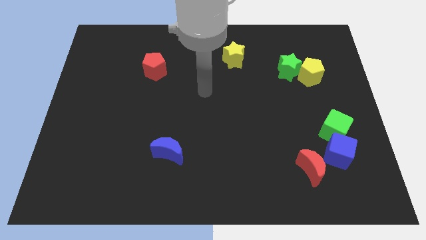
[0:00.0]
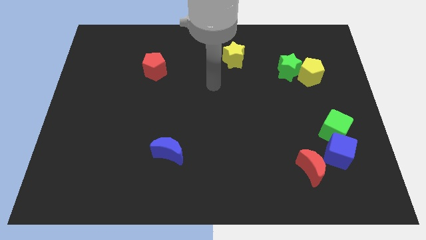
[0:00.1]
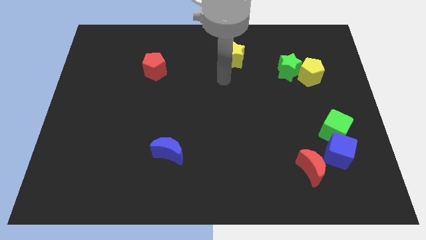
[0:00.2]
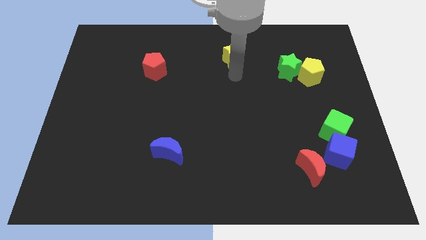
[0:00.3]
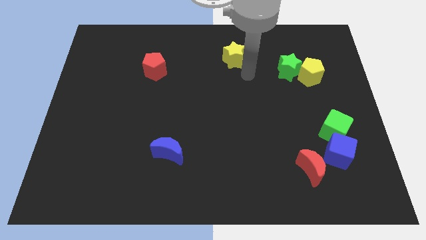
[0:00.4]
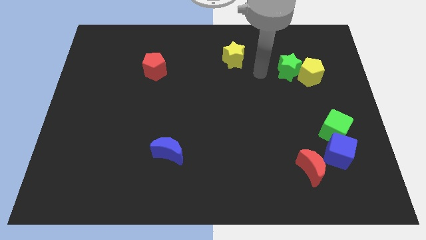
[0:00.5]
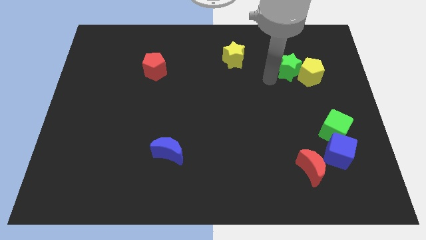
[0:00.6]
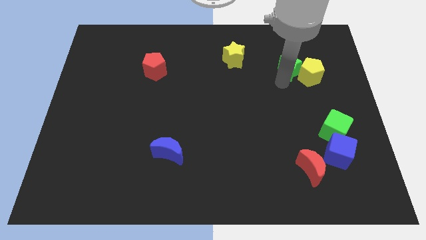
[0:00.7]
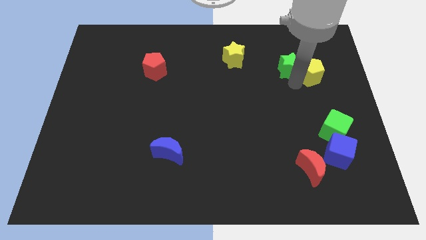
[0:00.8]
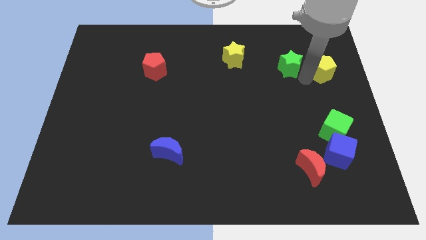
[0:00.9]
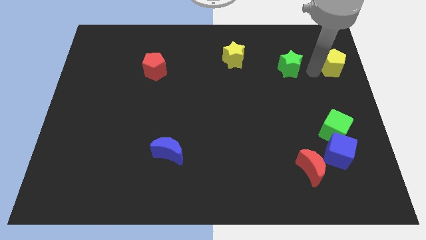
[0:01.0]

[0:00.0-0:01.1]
separate the green star from the yellow pentagon

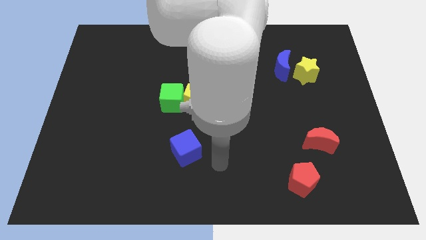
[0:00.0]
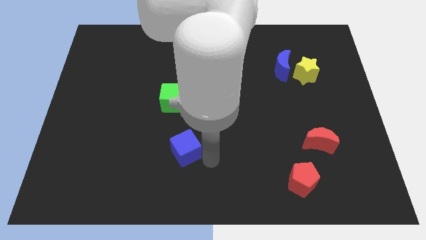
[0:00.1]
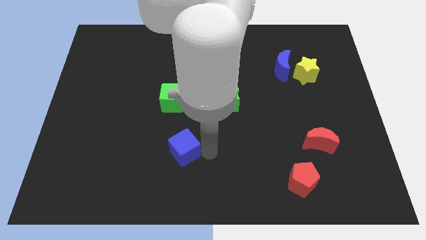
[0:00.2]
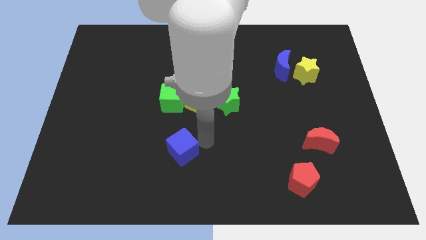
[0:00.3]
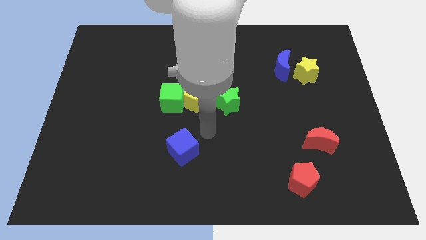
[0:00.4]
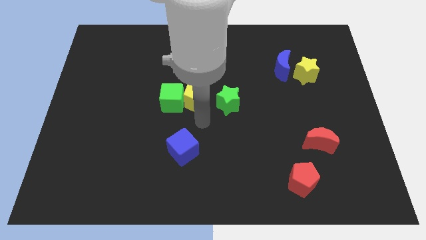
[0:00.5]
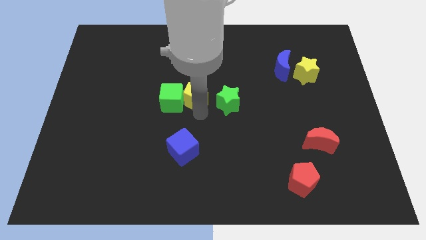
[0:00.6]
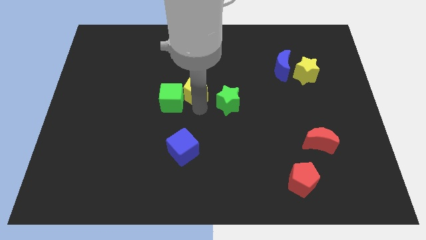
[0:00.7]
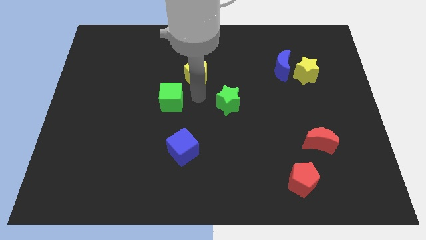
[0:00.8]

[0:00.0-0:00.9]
pull the green cube apart from the yellow pentagon

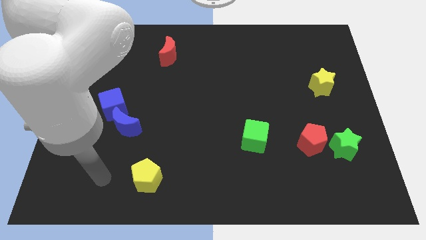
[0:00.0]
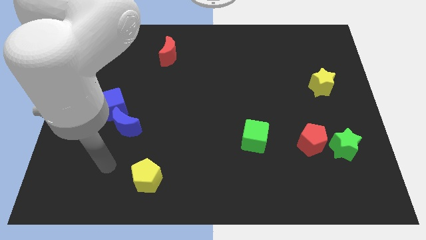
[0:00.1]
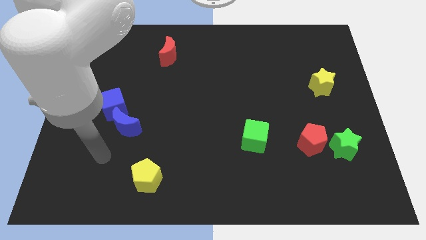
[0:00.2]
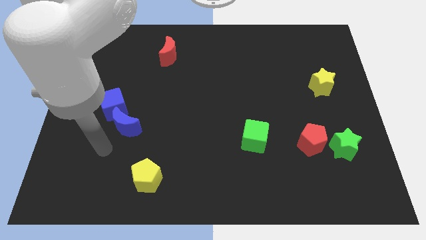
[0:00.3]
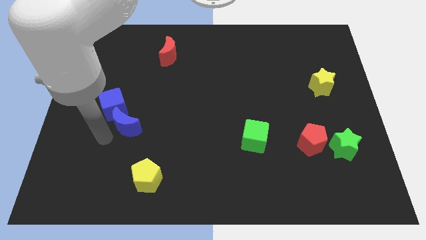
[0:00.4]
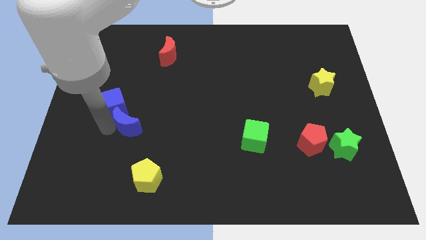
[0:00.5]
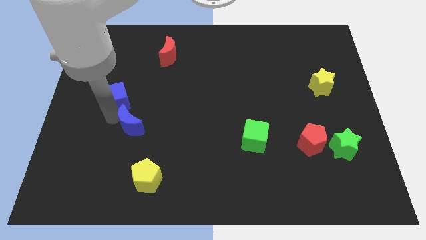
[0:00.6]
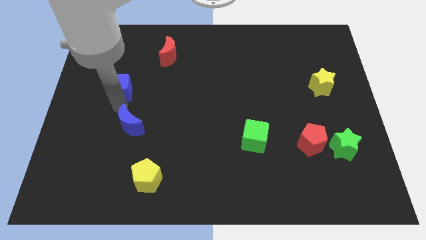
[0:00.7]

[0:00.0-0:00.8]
pull the blue moon apart from the blue cube

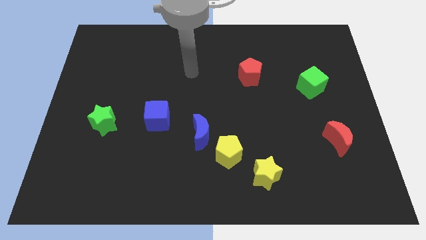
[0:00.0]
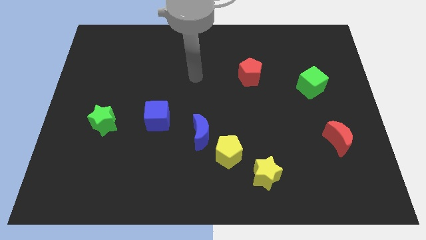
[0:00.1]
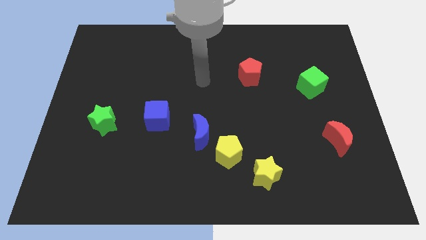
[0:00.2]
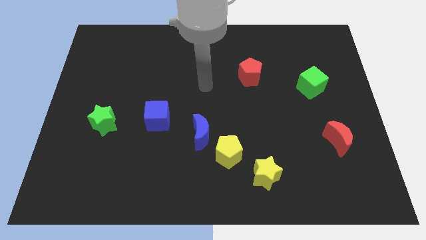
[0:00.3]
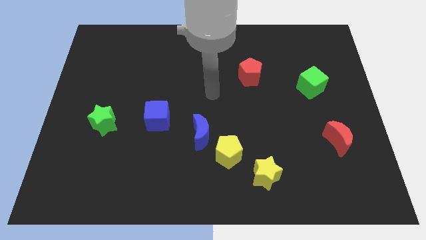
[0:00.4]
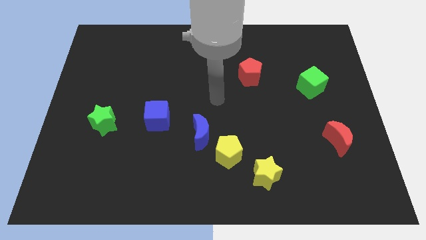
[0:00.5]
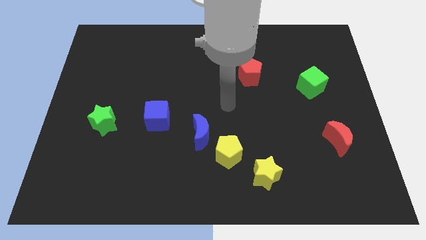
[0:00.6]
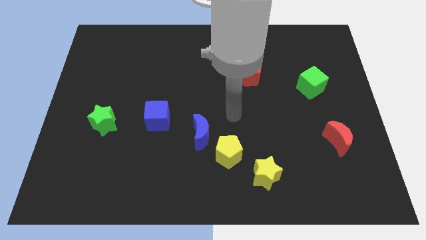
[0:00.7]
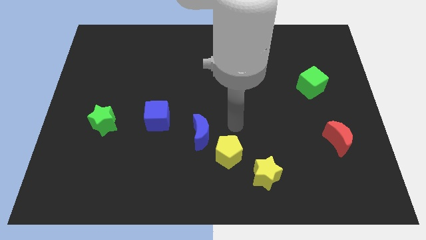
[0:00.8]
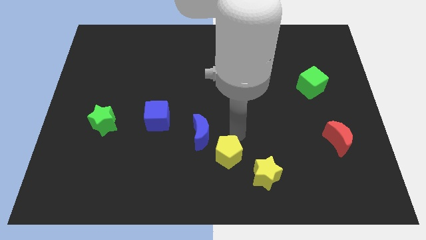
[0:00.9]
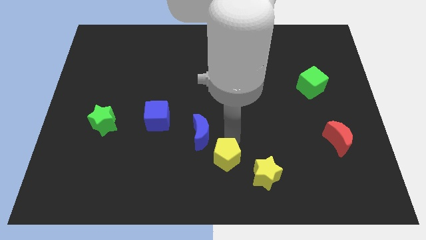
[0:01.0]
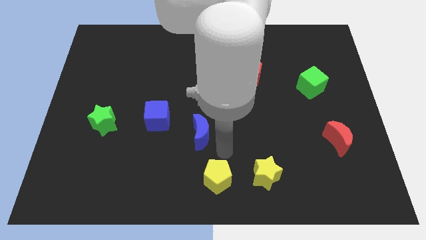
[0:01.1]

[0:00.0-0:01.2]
pull the blue moon apart from the yellow pentagon

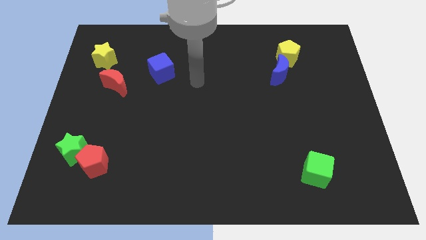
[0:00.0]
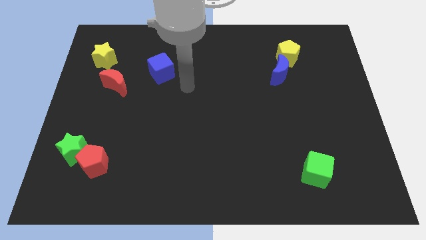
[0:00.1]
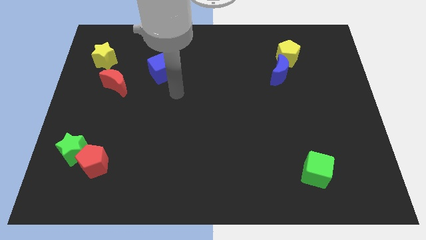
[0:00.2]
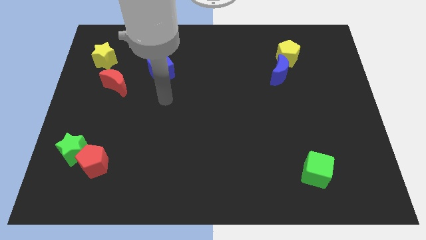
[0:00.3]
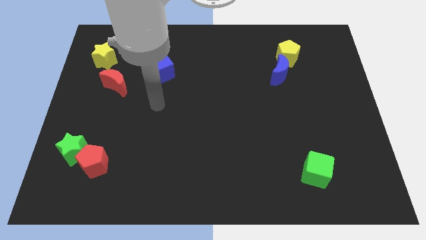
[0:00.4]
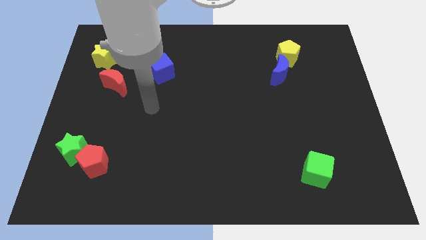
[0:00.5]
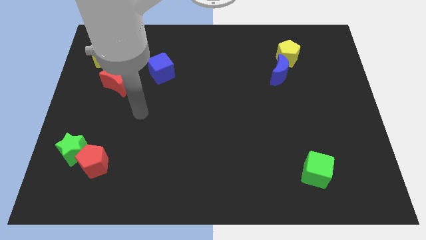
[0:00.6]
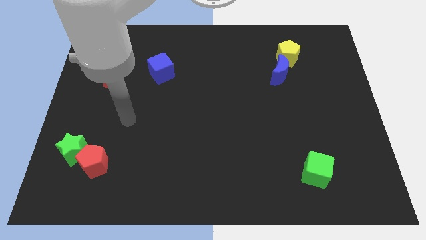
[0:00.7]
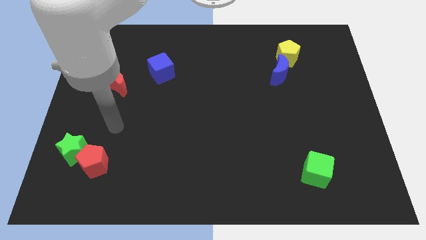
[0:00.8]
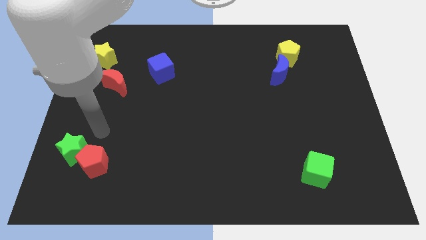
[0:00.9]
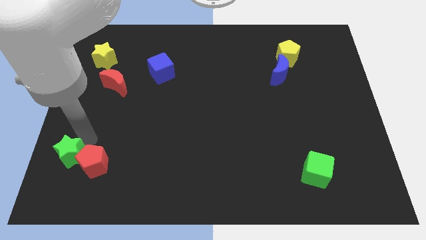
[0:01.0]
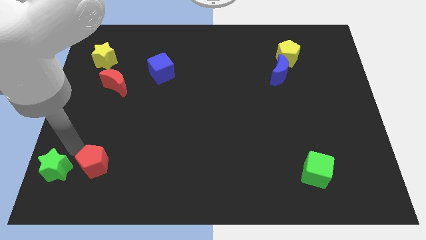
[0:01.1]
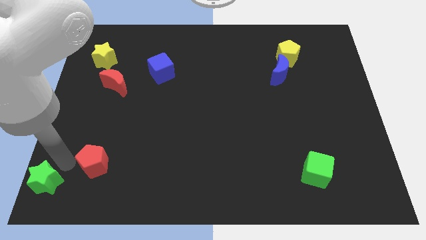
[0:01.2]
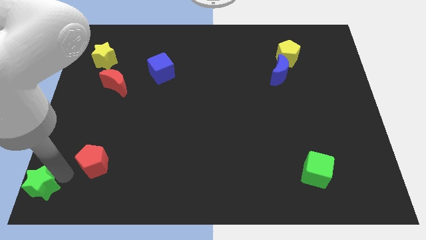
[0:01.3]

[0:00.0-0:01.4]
pull the red pentagon apart from the green star

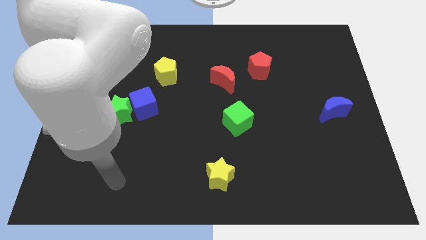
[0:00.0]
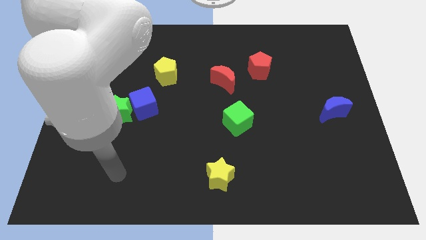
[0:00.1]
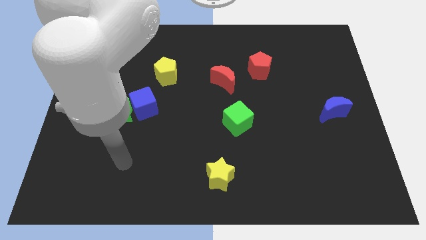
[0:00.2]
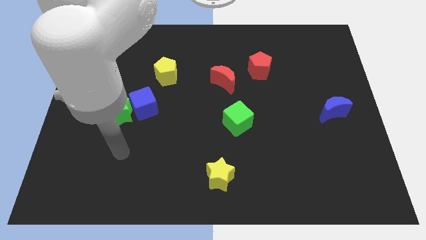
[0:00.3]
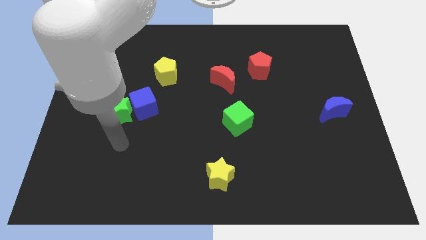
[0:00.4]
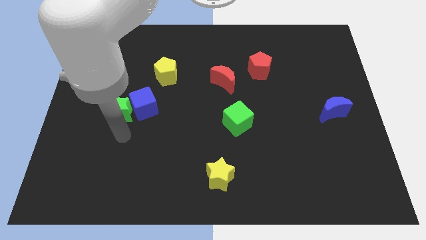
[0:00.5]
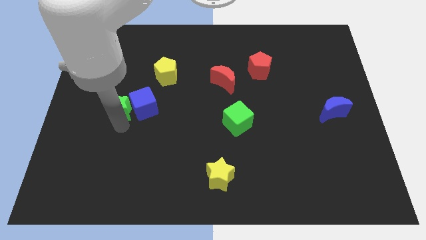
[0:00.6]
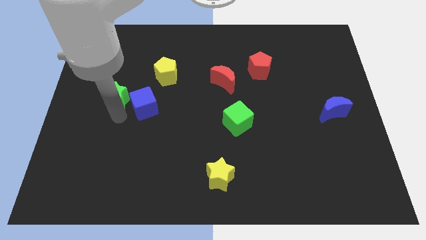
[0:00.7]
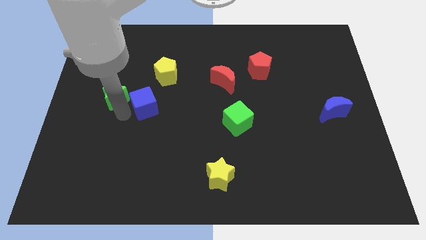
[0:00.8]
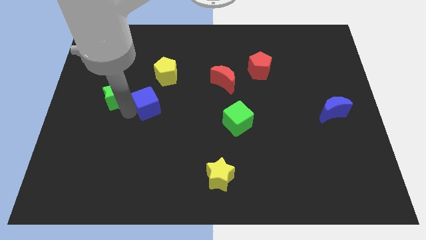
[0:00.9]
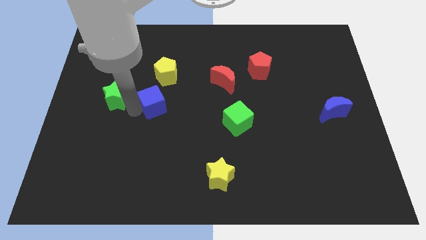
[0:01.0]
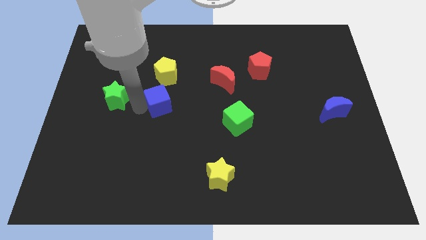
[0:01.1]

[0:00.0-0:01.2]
pull the blue cube apart from the green star

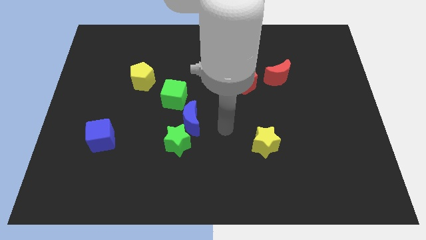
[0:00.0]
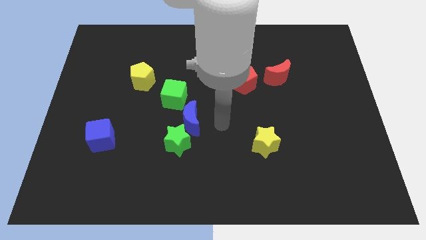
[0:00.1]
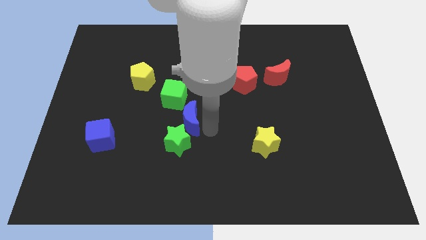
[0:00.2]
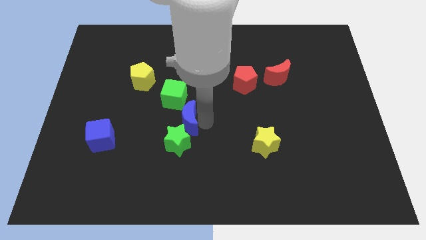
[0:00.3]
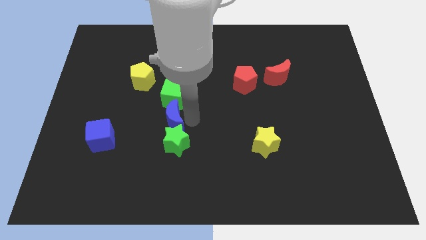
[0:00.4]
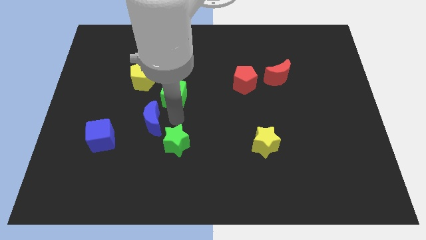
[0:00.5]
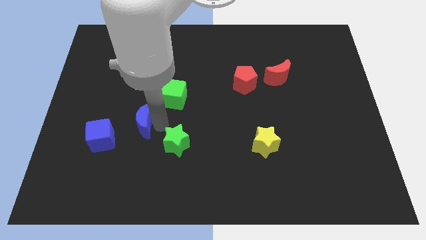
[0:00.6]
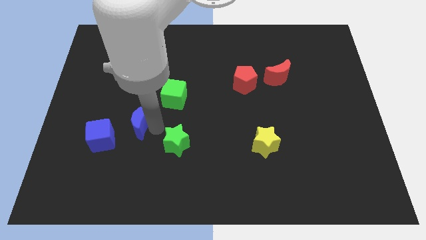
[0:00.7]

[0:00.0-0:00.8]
pull the green star apart from the blue moon

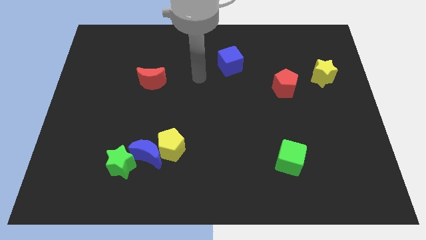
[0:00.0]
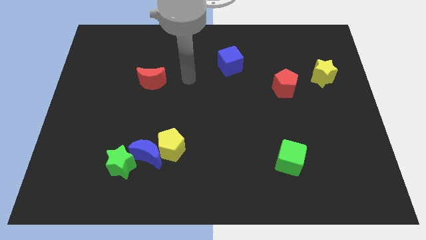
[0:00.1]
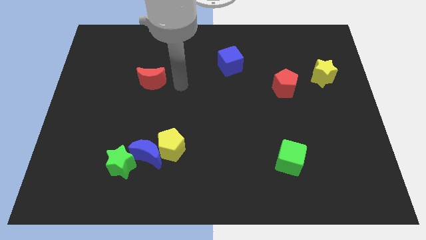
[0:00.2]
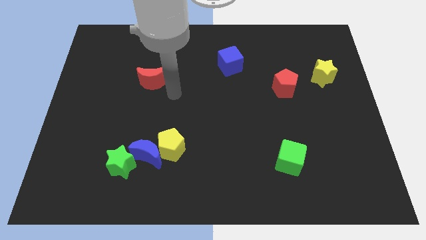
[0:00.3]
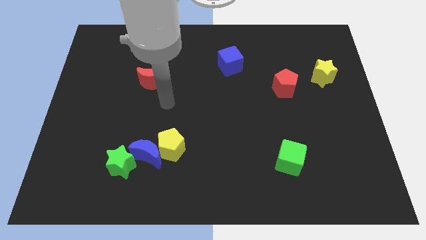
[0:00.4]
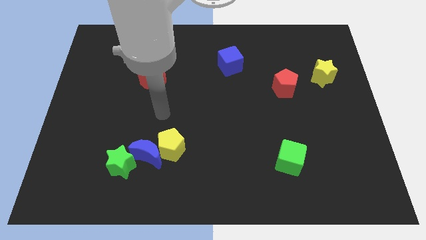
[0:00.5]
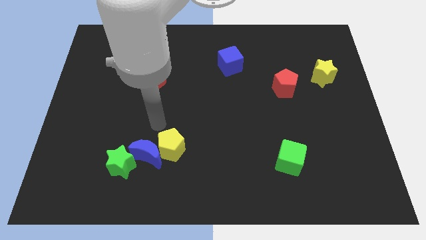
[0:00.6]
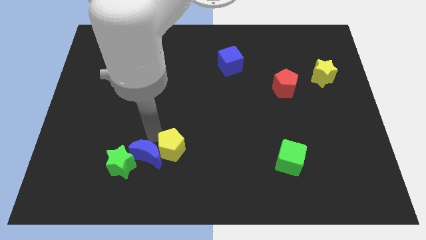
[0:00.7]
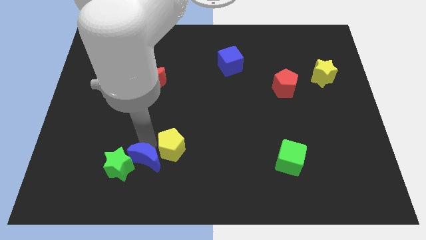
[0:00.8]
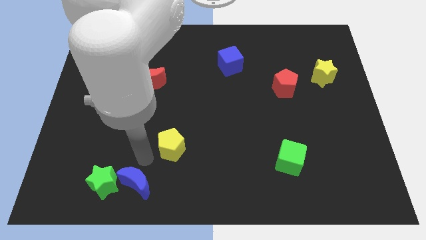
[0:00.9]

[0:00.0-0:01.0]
pull the yellow pentagon apart from the blue moon

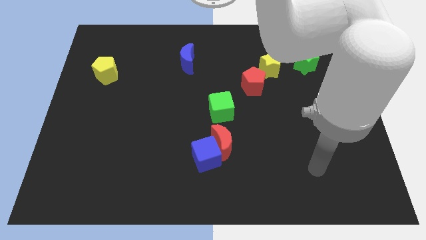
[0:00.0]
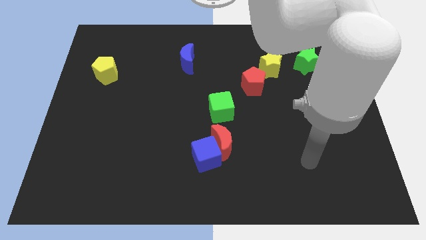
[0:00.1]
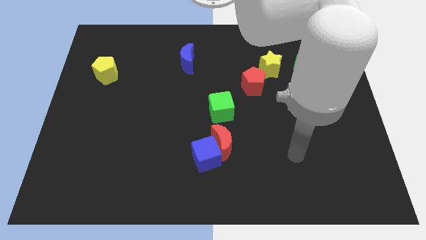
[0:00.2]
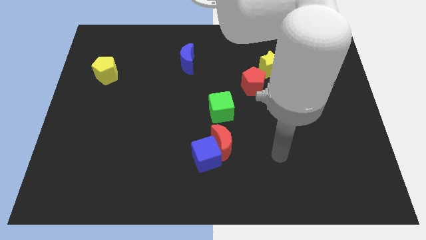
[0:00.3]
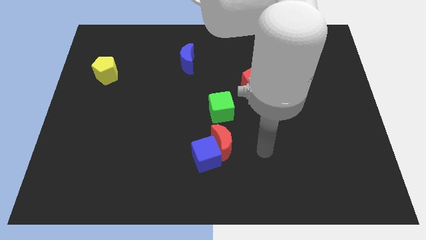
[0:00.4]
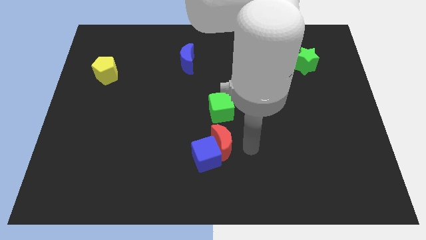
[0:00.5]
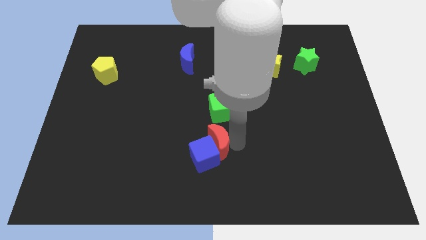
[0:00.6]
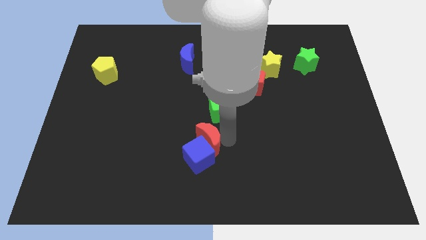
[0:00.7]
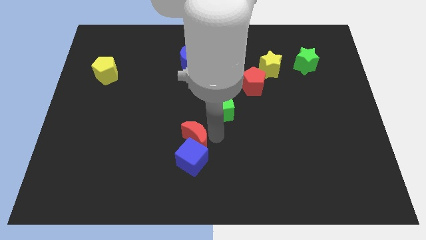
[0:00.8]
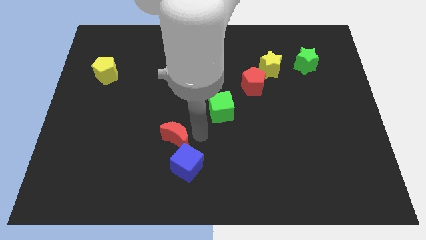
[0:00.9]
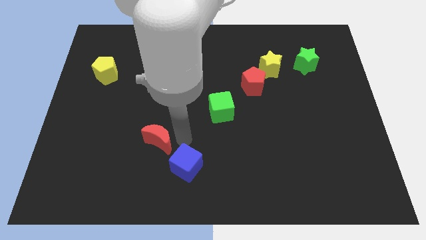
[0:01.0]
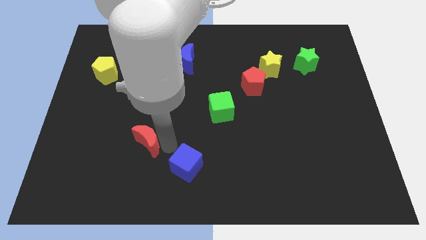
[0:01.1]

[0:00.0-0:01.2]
pull the blue cube apart from the red moon
